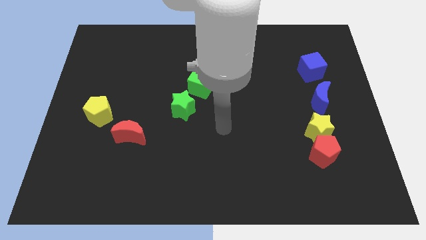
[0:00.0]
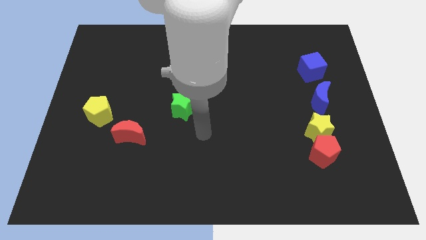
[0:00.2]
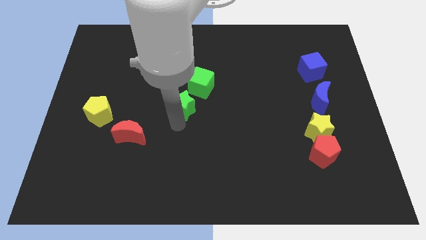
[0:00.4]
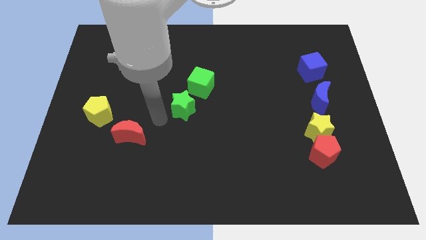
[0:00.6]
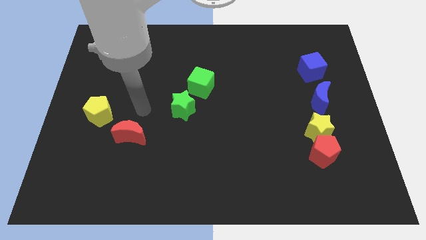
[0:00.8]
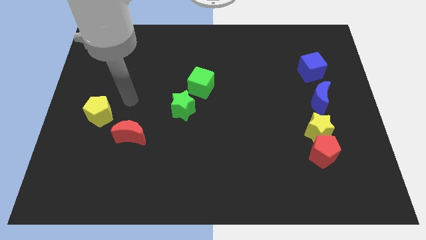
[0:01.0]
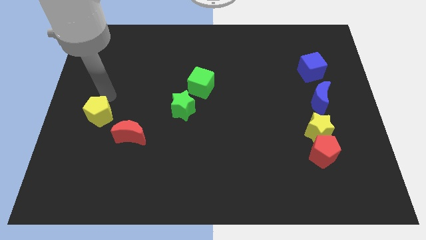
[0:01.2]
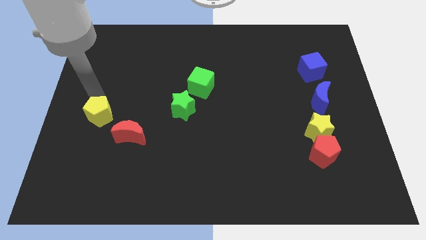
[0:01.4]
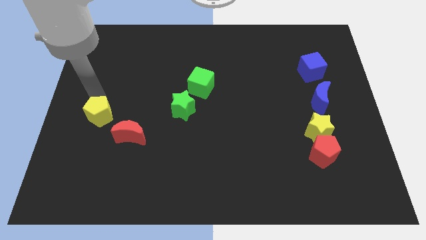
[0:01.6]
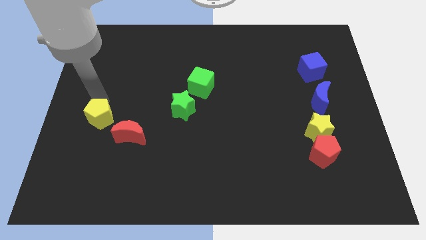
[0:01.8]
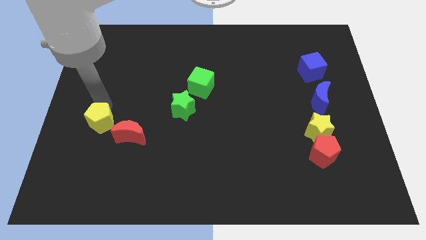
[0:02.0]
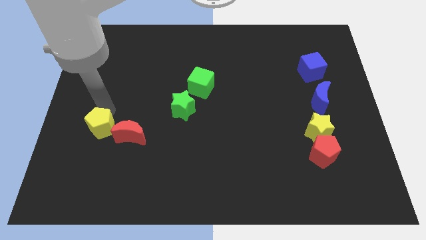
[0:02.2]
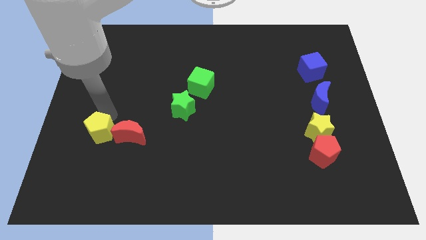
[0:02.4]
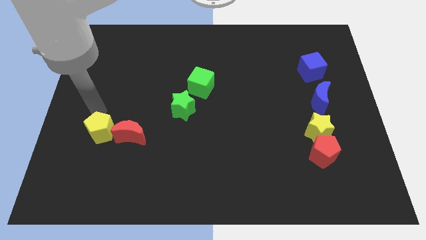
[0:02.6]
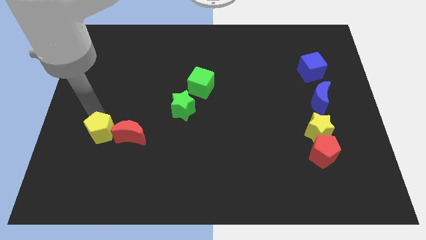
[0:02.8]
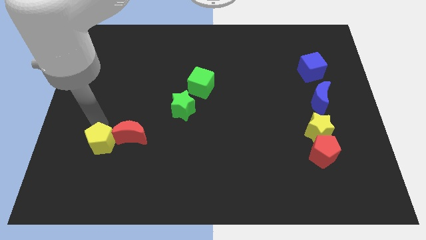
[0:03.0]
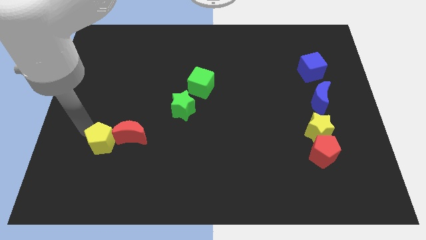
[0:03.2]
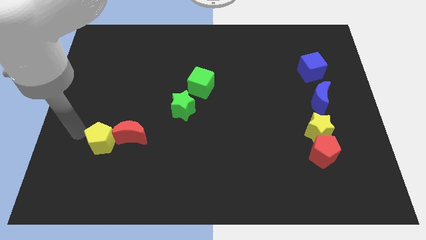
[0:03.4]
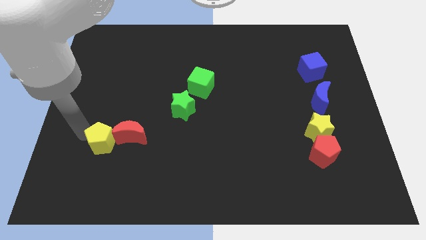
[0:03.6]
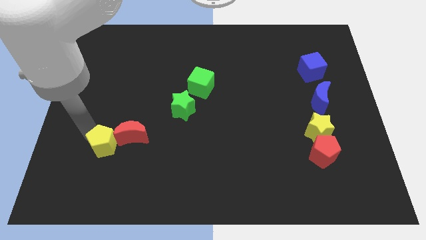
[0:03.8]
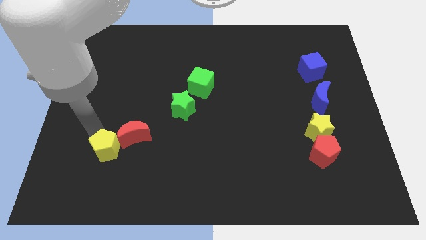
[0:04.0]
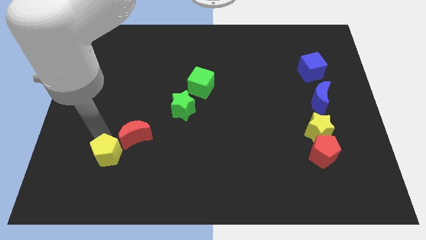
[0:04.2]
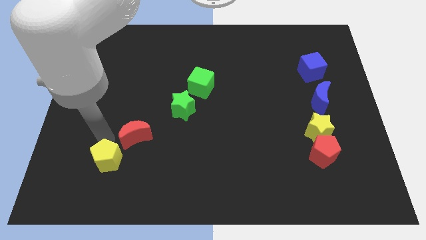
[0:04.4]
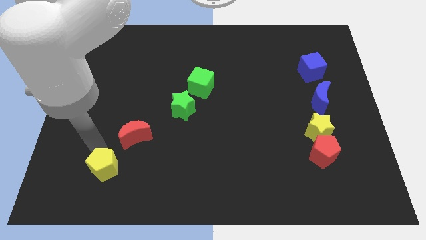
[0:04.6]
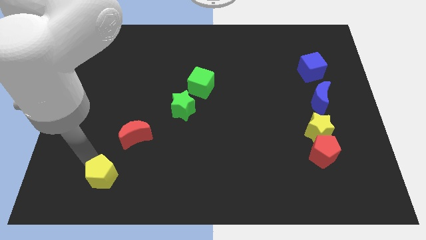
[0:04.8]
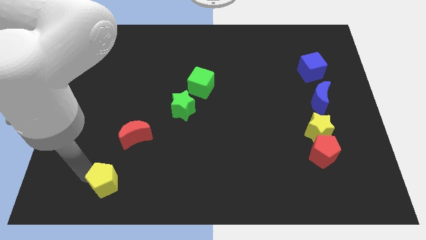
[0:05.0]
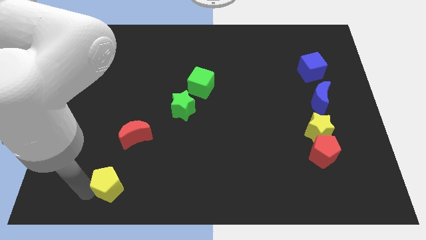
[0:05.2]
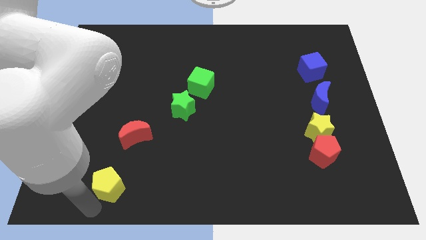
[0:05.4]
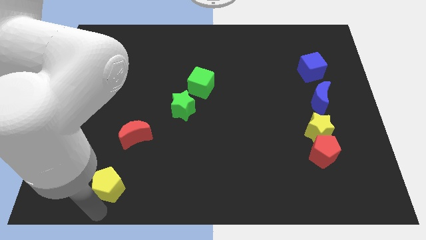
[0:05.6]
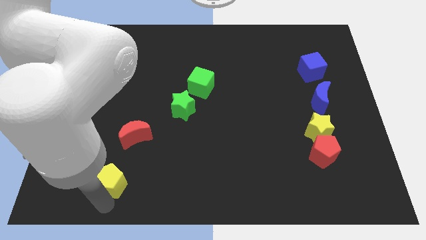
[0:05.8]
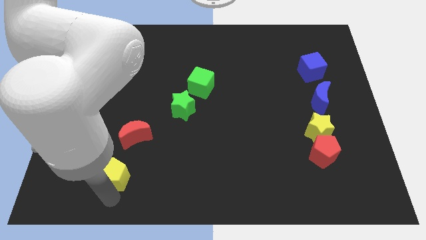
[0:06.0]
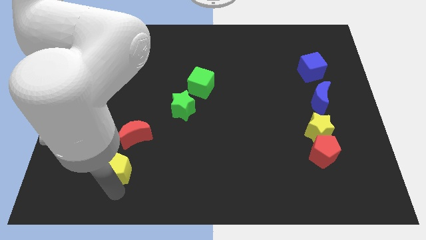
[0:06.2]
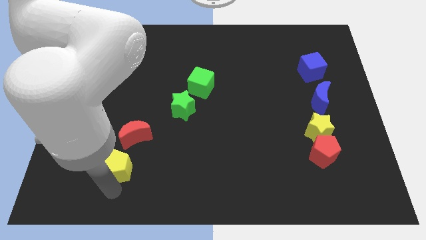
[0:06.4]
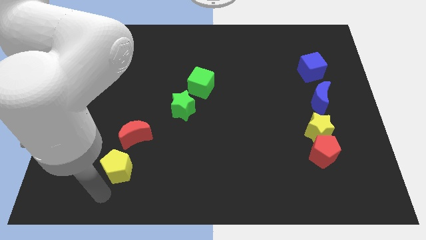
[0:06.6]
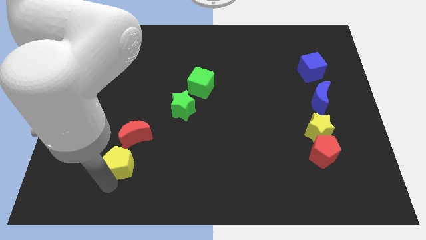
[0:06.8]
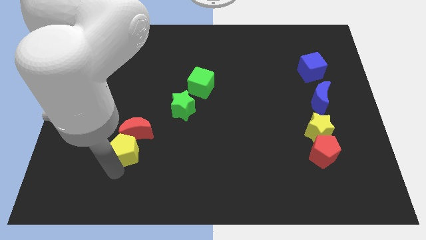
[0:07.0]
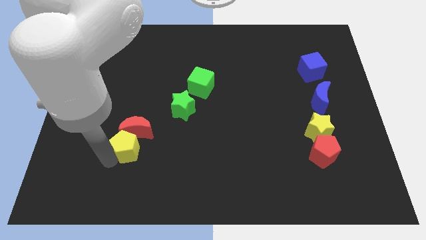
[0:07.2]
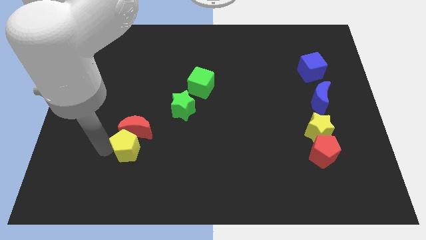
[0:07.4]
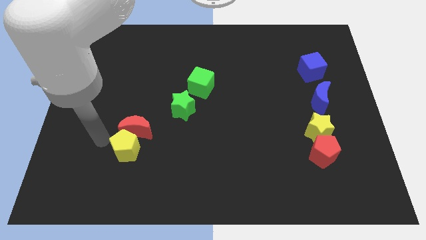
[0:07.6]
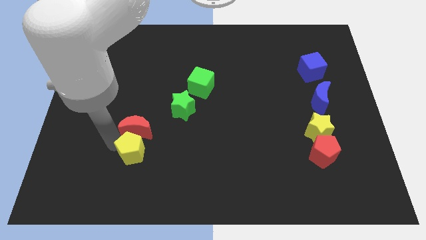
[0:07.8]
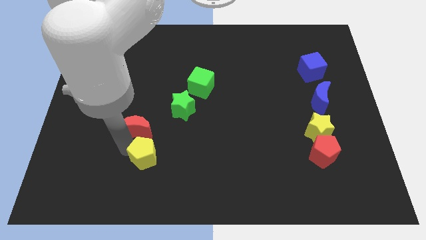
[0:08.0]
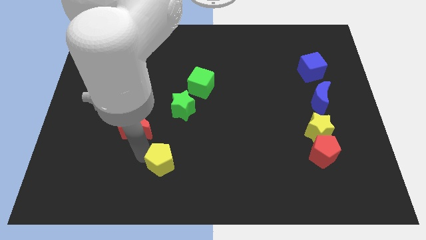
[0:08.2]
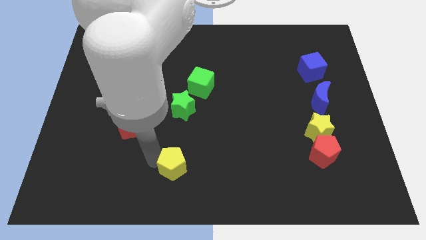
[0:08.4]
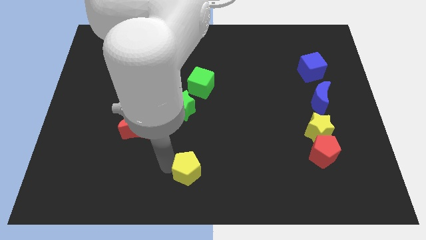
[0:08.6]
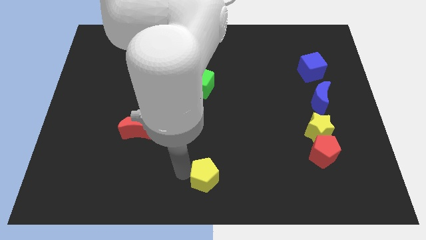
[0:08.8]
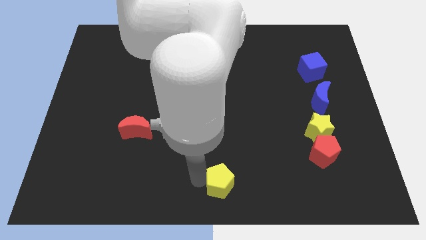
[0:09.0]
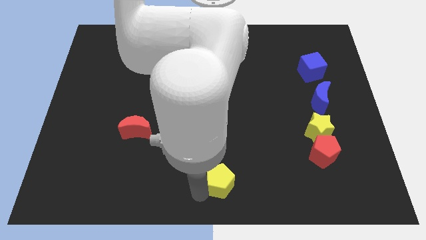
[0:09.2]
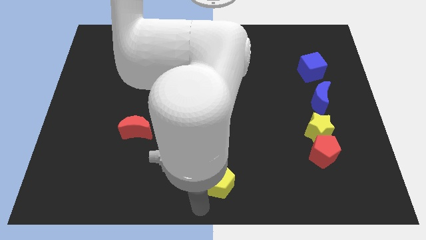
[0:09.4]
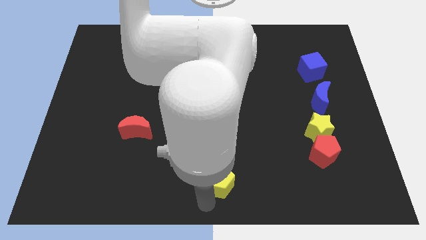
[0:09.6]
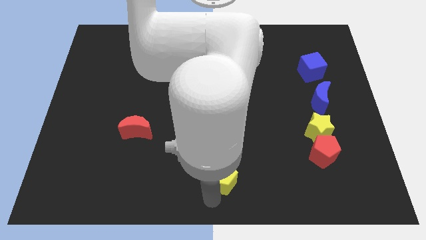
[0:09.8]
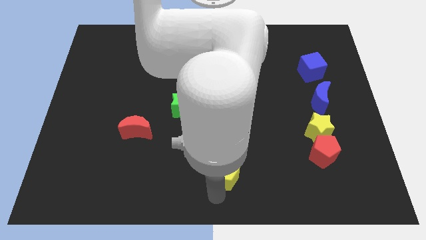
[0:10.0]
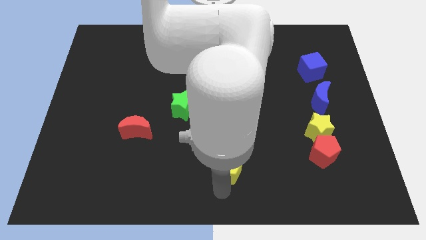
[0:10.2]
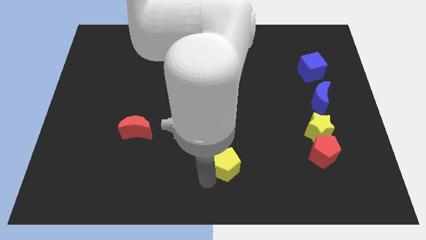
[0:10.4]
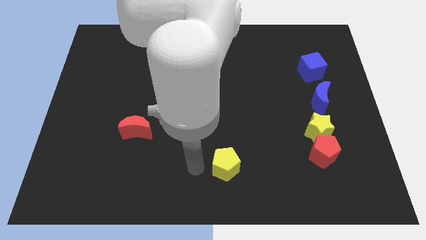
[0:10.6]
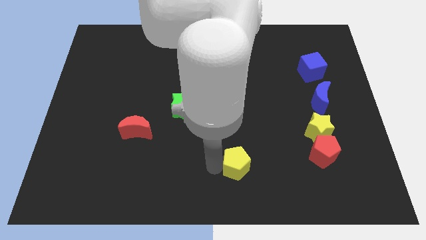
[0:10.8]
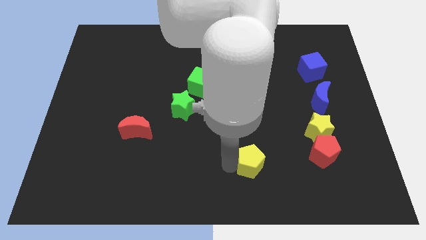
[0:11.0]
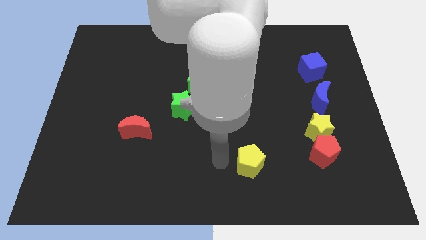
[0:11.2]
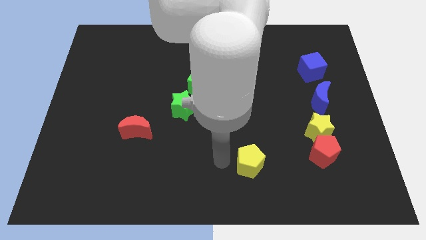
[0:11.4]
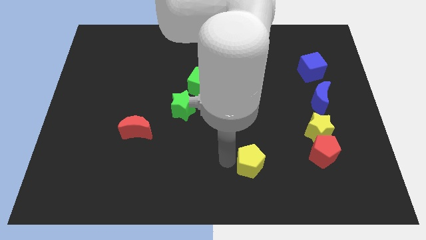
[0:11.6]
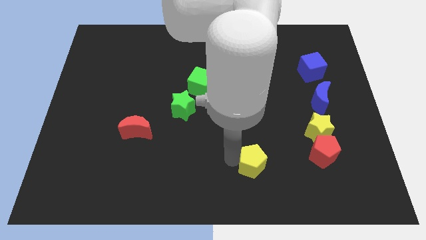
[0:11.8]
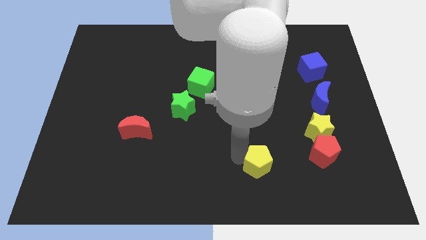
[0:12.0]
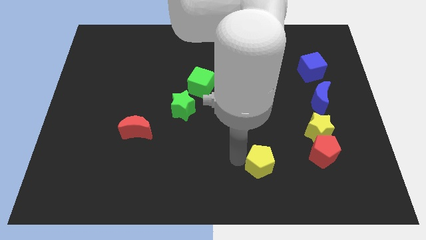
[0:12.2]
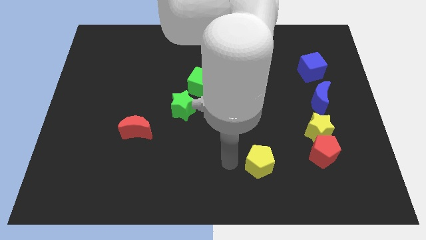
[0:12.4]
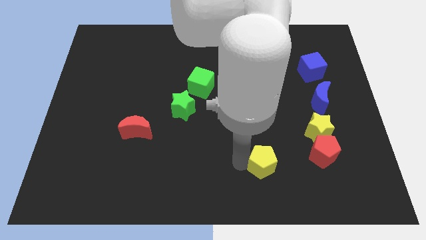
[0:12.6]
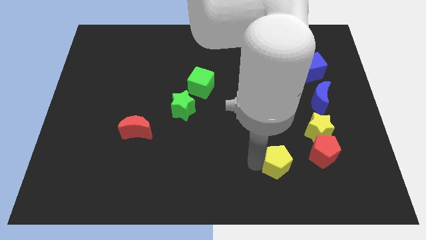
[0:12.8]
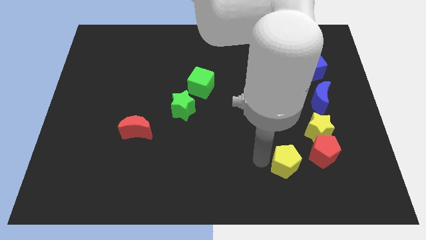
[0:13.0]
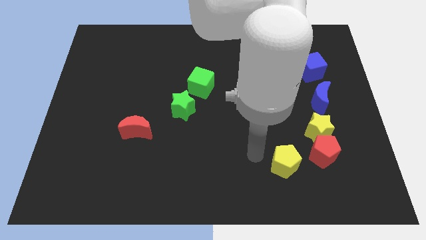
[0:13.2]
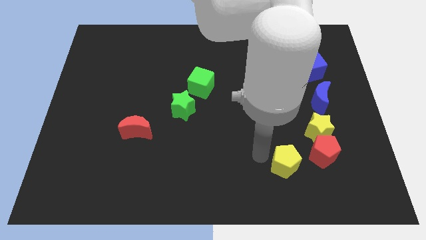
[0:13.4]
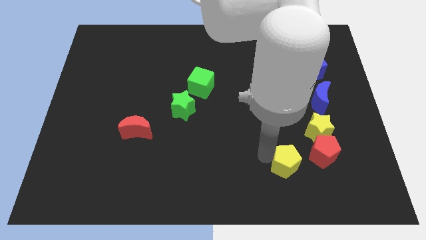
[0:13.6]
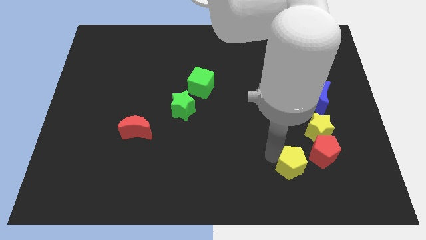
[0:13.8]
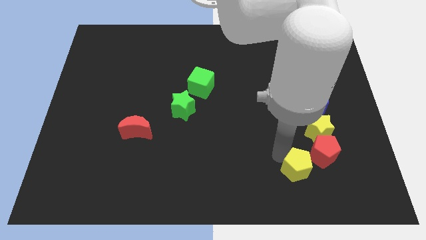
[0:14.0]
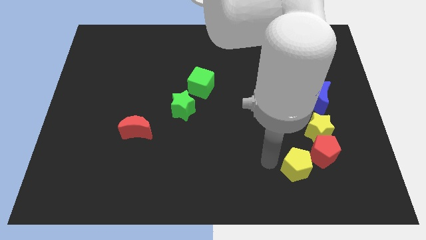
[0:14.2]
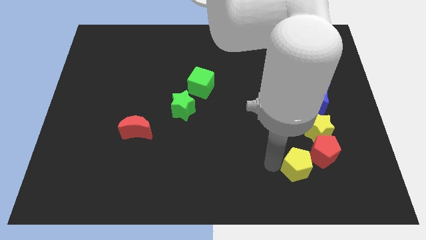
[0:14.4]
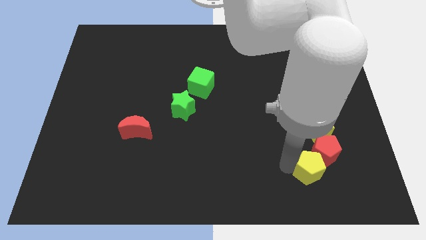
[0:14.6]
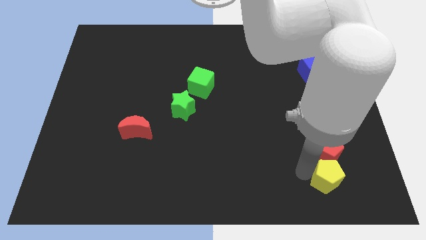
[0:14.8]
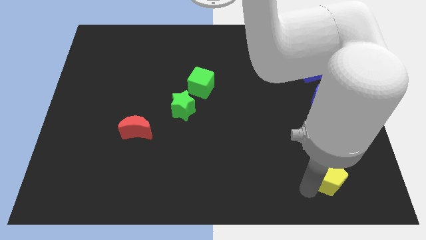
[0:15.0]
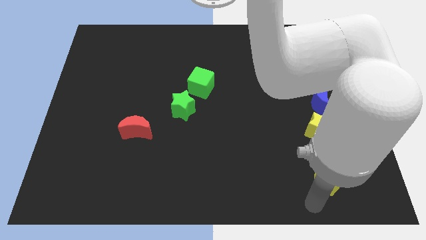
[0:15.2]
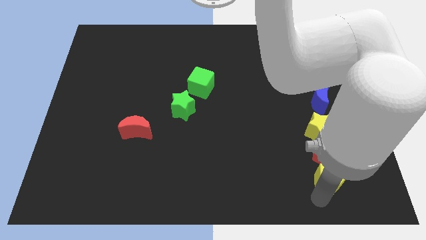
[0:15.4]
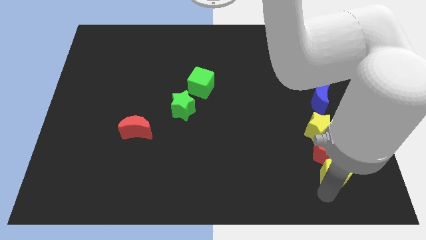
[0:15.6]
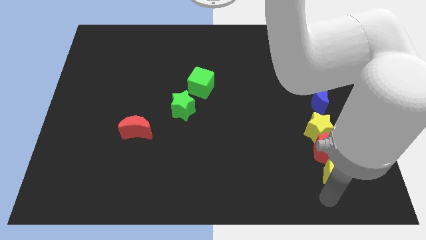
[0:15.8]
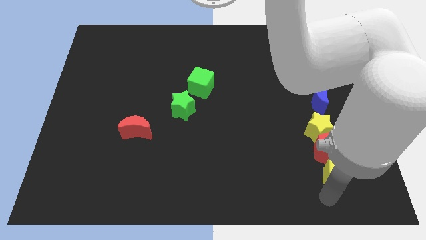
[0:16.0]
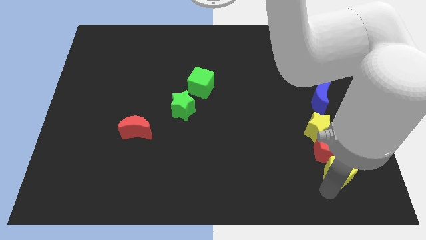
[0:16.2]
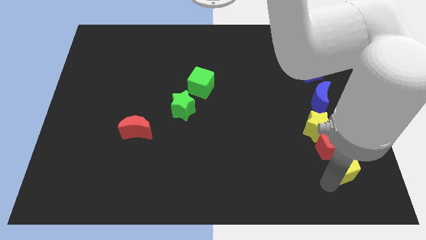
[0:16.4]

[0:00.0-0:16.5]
push the yellow pentagon diagonally down and to the right of the yellow star
